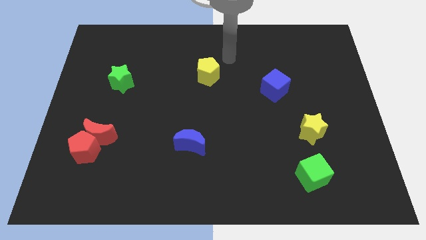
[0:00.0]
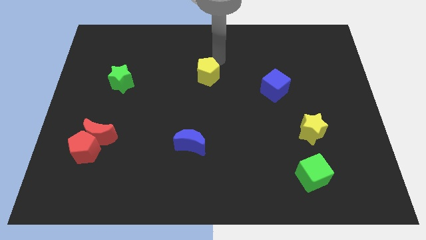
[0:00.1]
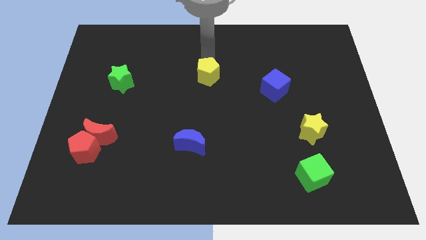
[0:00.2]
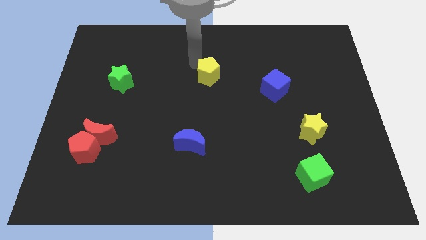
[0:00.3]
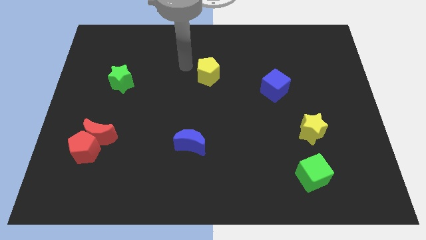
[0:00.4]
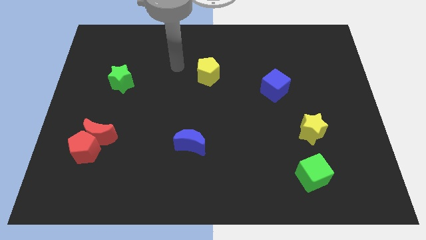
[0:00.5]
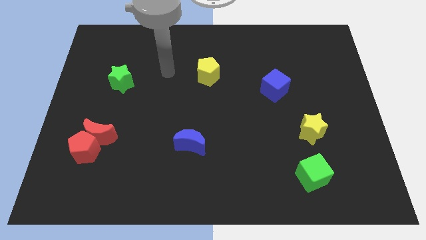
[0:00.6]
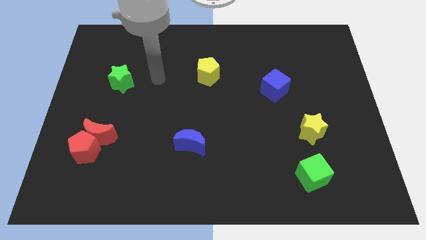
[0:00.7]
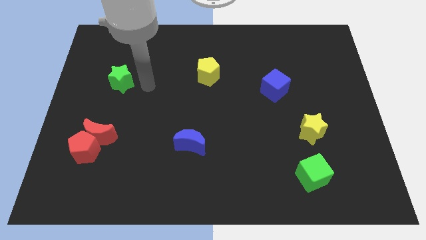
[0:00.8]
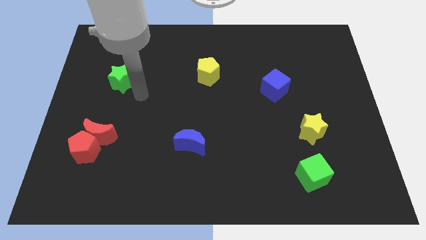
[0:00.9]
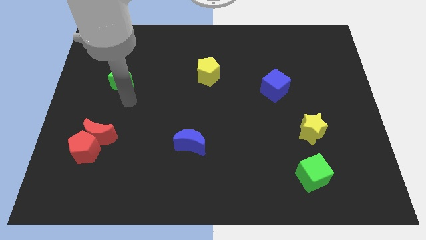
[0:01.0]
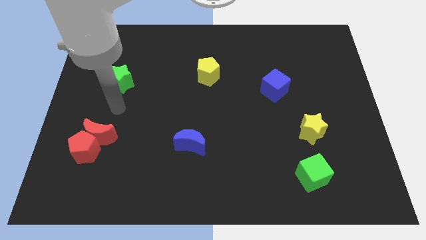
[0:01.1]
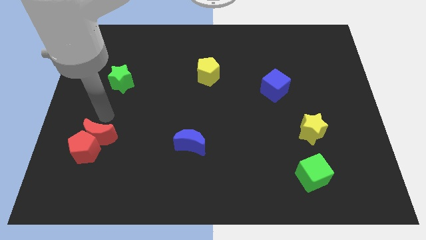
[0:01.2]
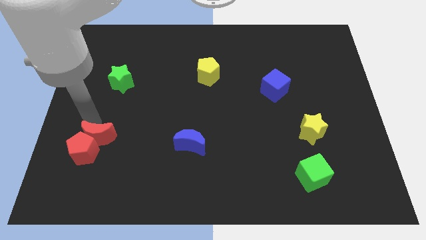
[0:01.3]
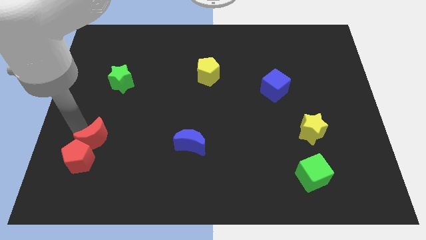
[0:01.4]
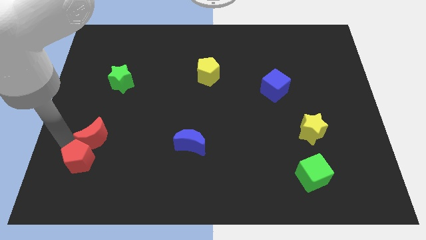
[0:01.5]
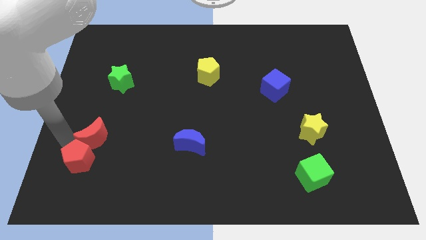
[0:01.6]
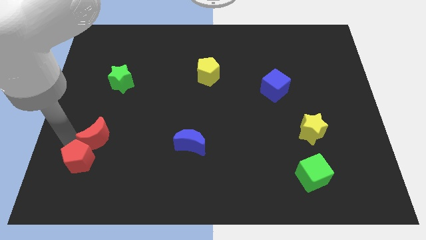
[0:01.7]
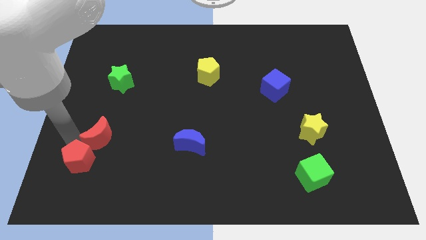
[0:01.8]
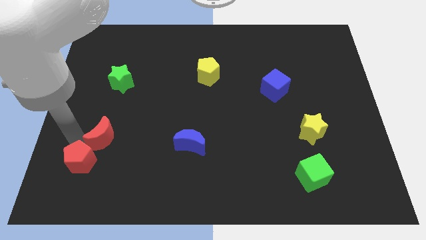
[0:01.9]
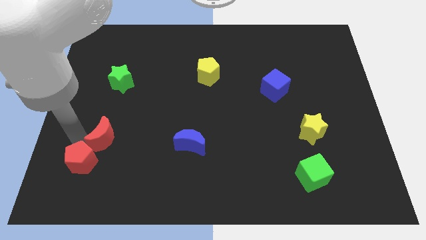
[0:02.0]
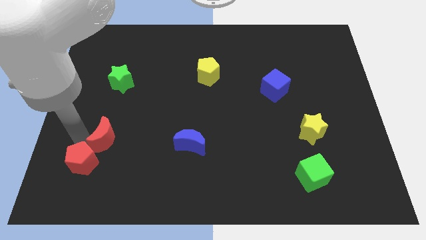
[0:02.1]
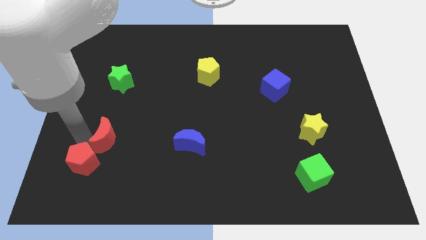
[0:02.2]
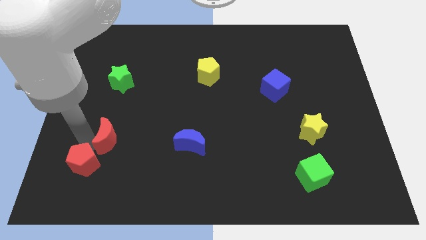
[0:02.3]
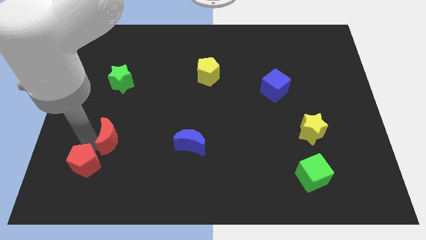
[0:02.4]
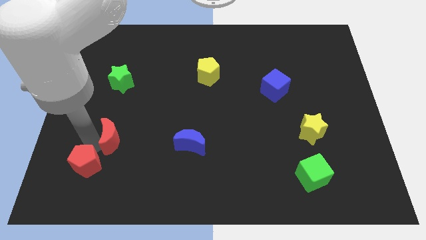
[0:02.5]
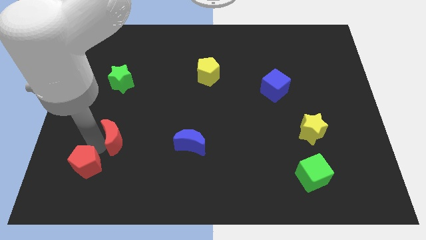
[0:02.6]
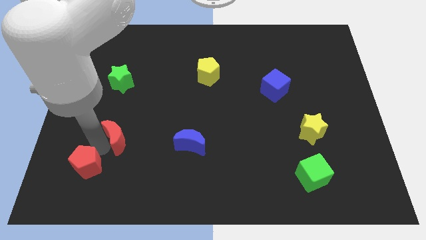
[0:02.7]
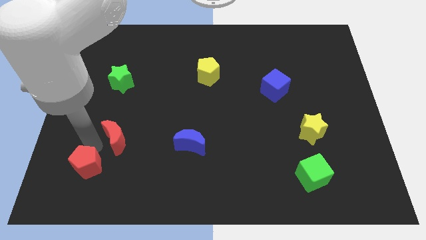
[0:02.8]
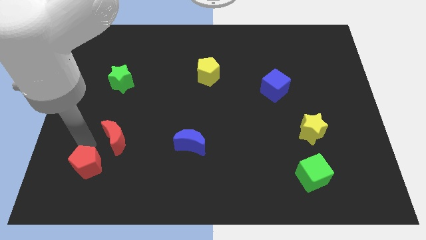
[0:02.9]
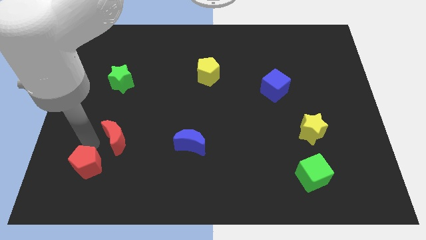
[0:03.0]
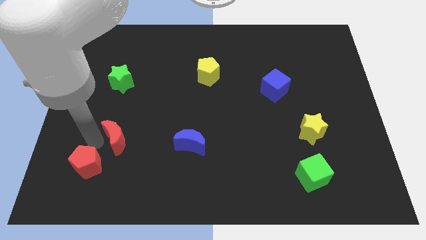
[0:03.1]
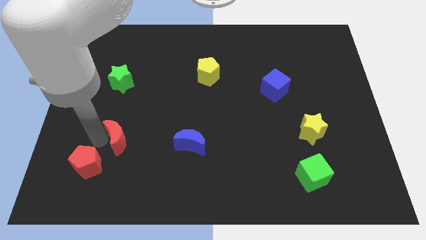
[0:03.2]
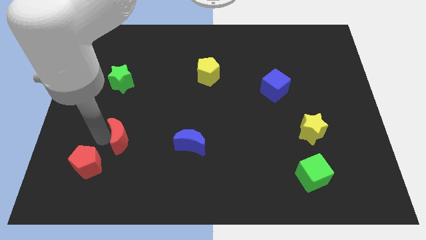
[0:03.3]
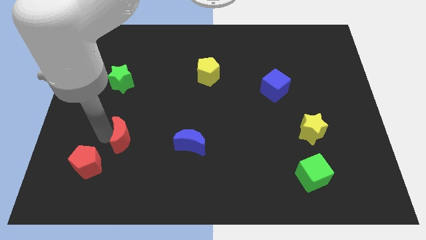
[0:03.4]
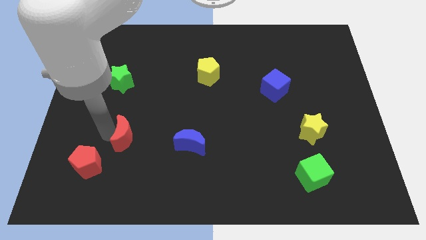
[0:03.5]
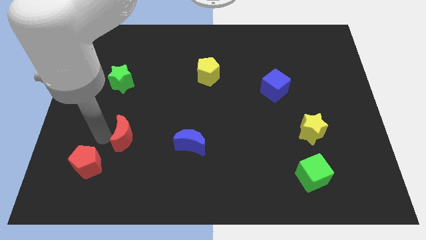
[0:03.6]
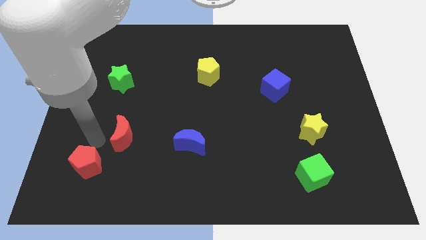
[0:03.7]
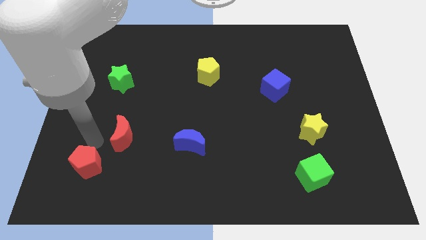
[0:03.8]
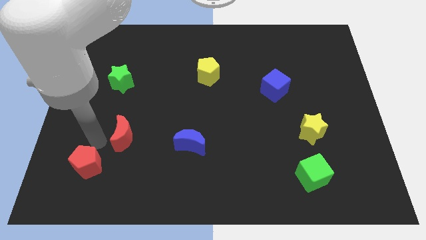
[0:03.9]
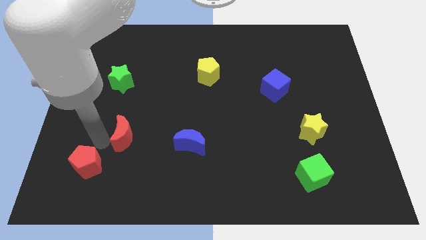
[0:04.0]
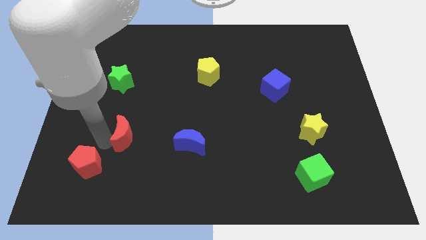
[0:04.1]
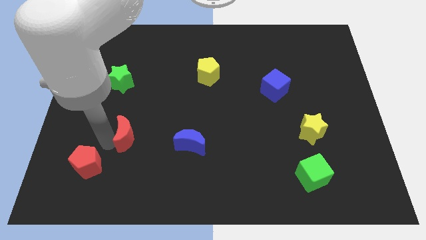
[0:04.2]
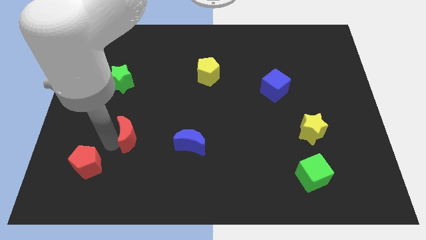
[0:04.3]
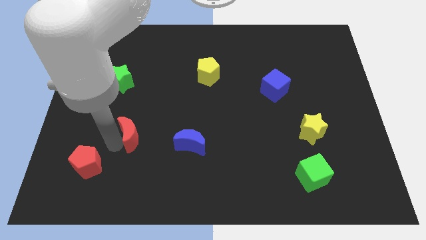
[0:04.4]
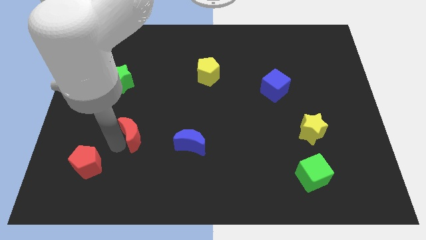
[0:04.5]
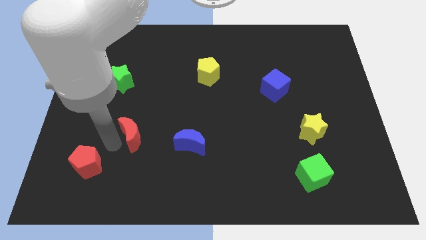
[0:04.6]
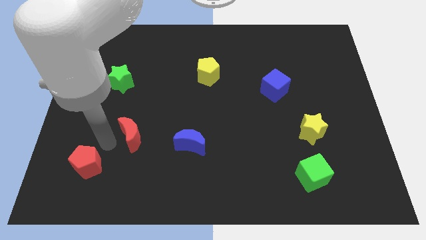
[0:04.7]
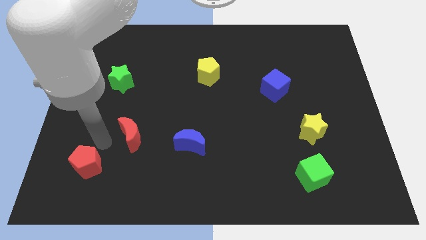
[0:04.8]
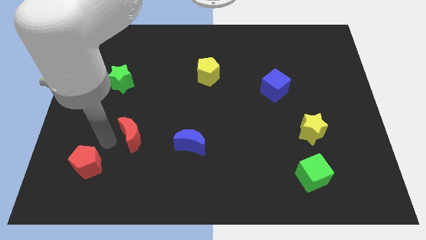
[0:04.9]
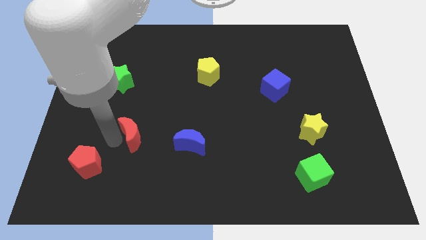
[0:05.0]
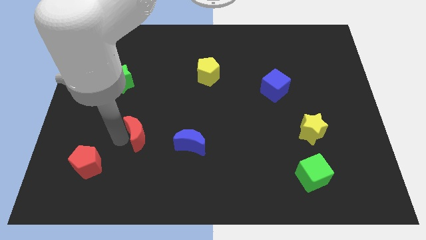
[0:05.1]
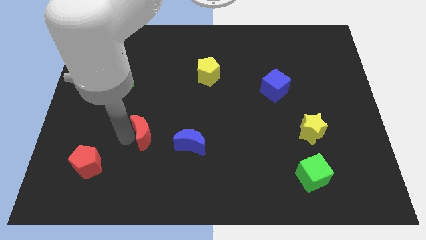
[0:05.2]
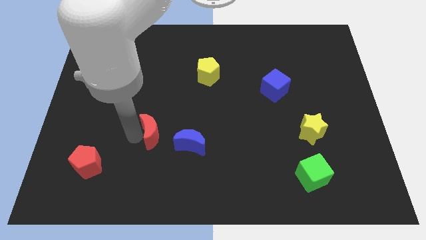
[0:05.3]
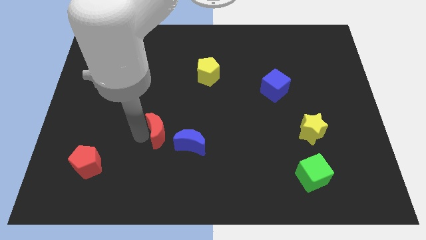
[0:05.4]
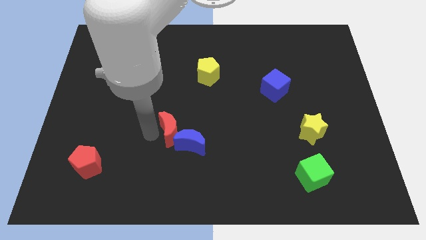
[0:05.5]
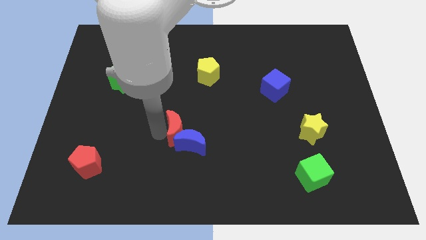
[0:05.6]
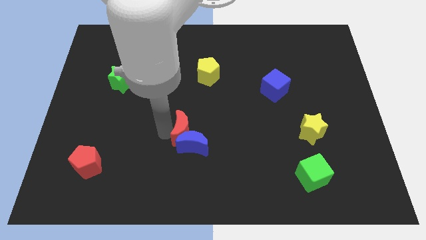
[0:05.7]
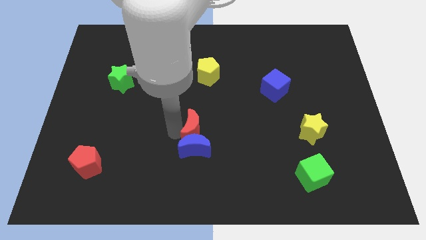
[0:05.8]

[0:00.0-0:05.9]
slide the red moon right

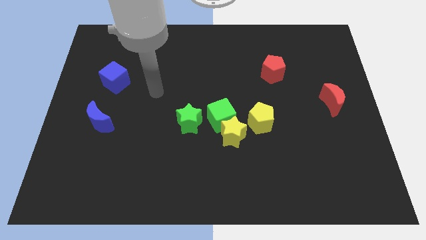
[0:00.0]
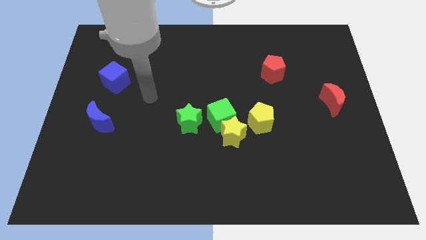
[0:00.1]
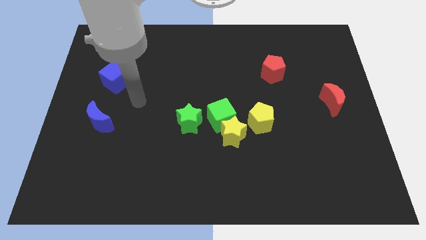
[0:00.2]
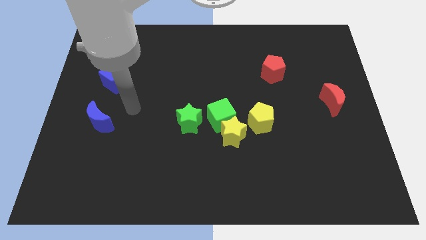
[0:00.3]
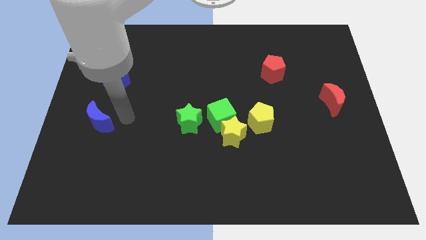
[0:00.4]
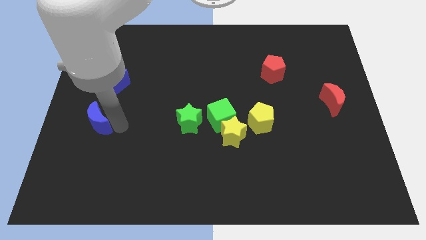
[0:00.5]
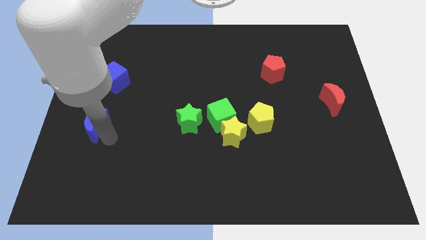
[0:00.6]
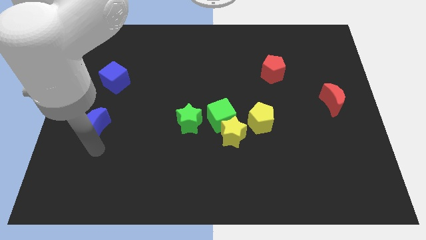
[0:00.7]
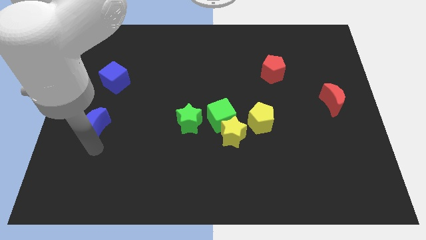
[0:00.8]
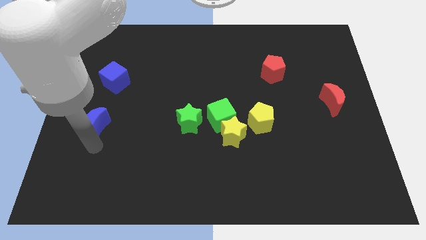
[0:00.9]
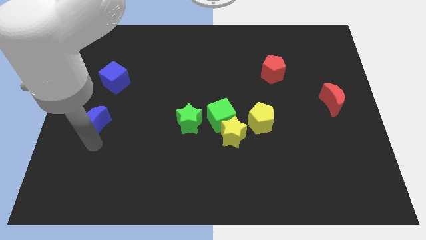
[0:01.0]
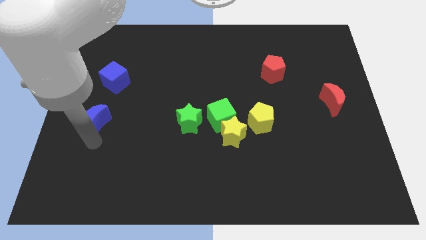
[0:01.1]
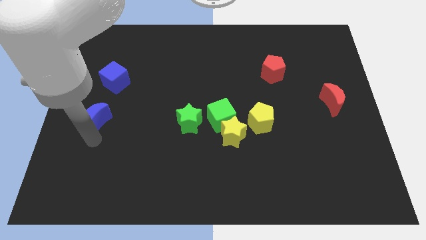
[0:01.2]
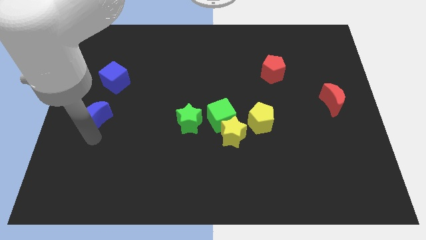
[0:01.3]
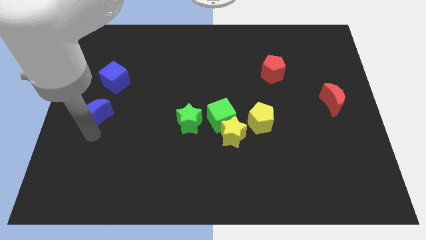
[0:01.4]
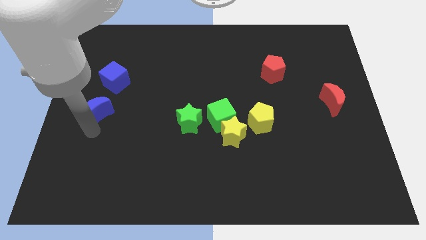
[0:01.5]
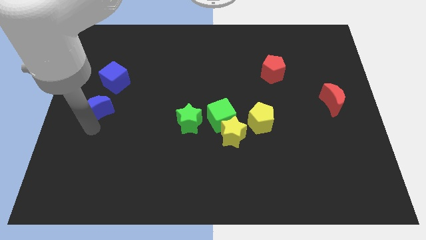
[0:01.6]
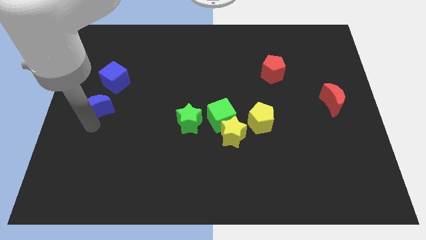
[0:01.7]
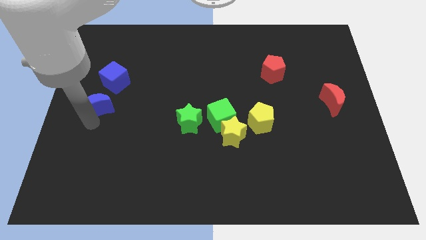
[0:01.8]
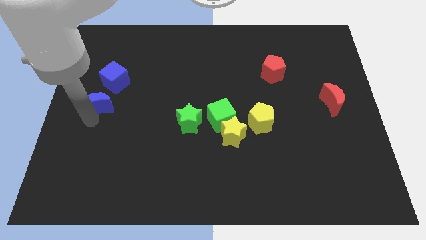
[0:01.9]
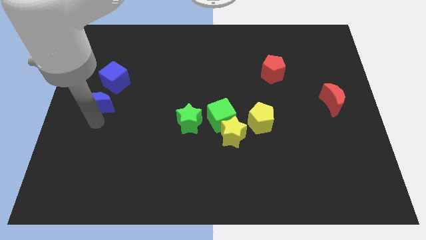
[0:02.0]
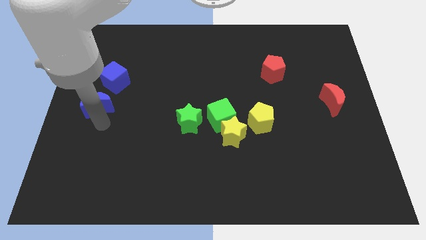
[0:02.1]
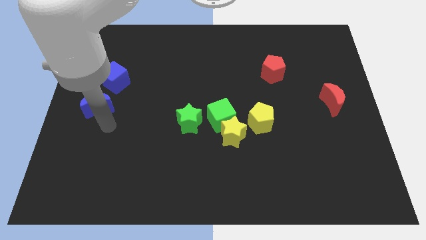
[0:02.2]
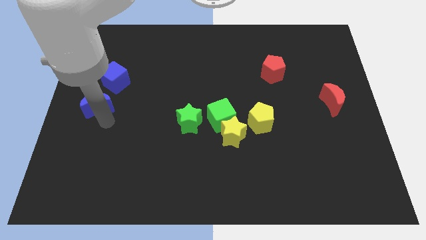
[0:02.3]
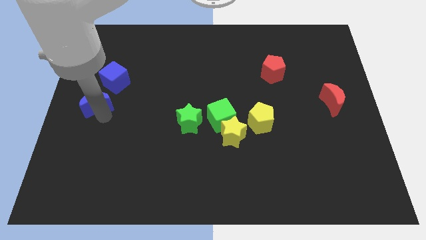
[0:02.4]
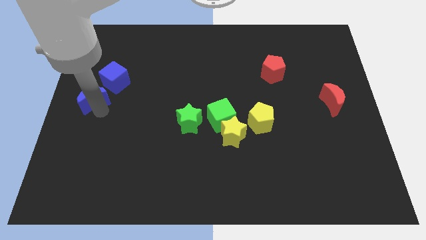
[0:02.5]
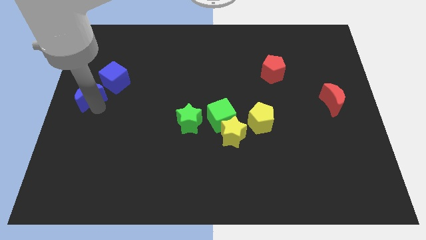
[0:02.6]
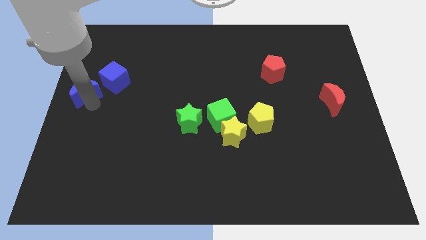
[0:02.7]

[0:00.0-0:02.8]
move the blue moon a bit up
